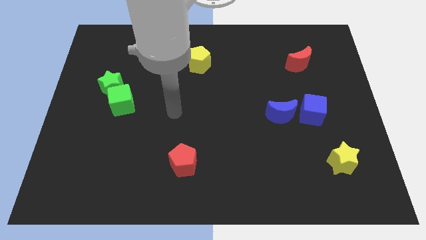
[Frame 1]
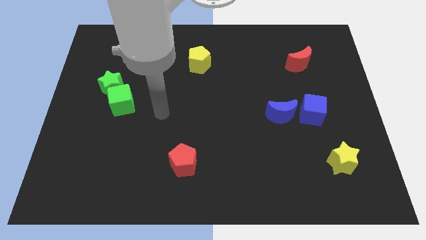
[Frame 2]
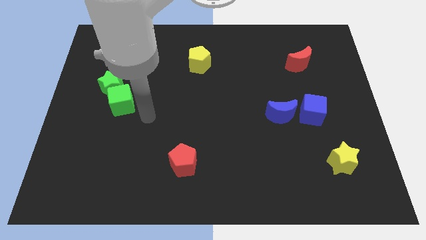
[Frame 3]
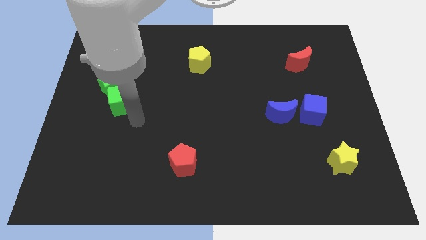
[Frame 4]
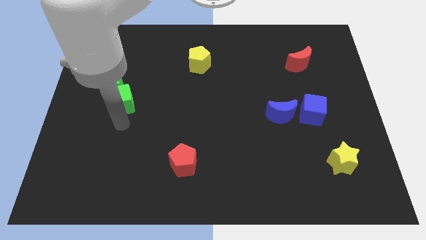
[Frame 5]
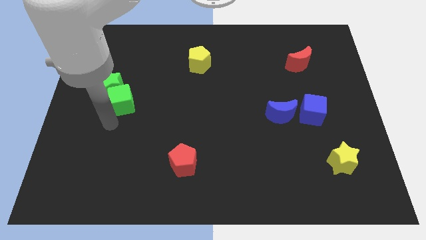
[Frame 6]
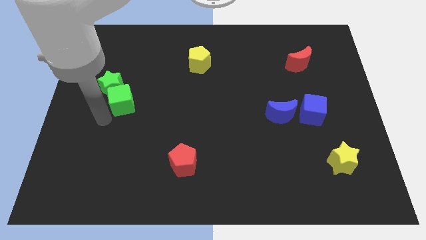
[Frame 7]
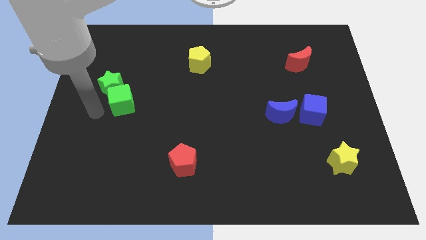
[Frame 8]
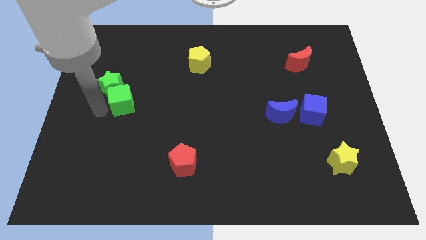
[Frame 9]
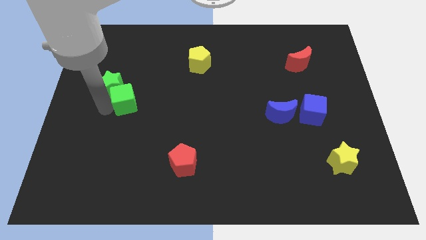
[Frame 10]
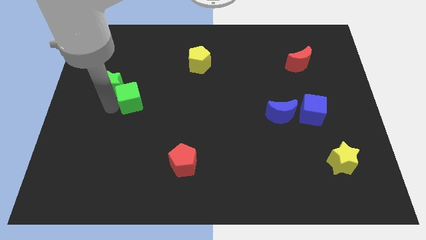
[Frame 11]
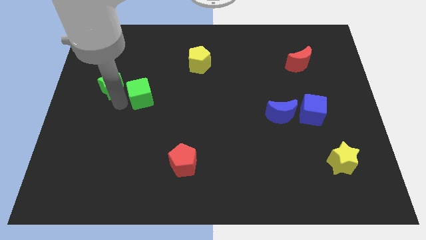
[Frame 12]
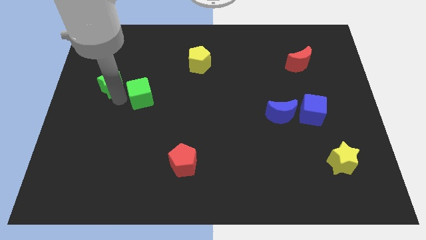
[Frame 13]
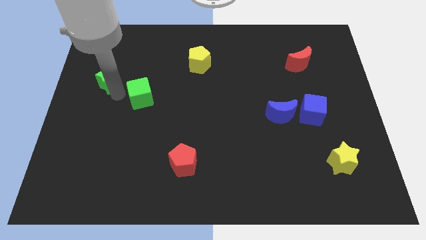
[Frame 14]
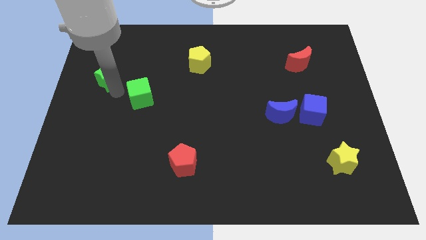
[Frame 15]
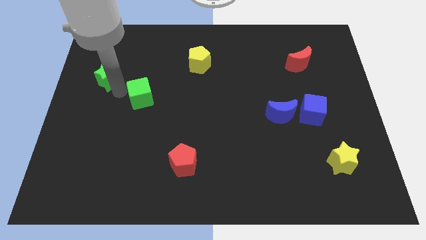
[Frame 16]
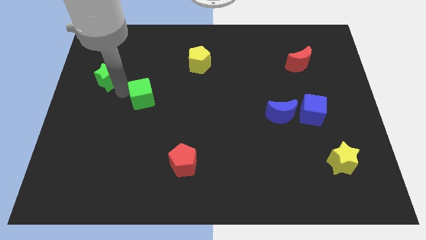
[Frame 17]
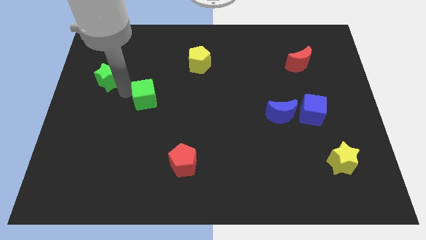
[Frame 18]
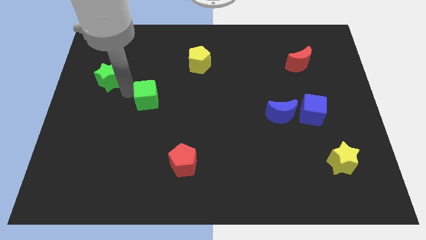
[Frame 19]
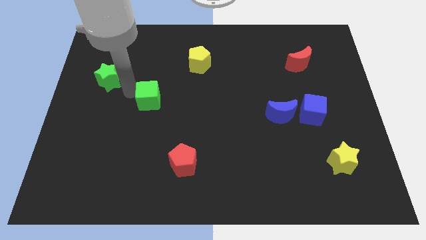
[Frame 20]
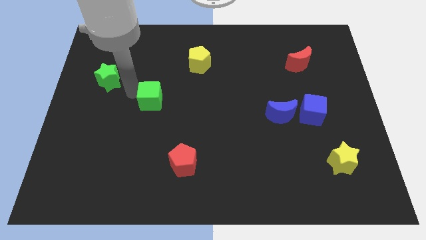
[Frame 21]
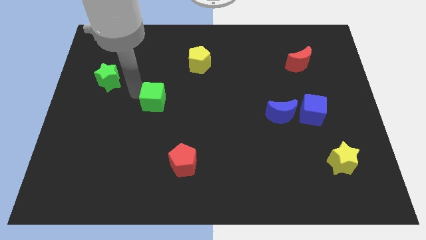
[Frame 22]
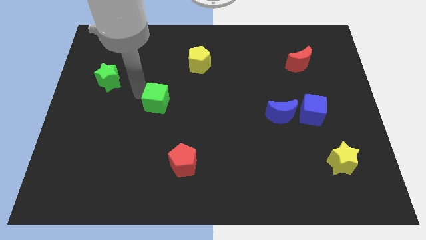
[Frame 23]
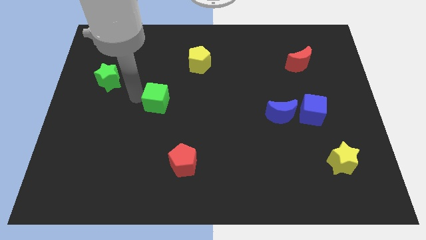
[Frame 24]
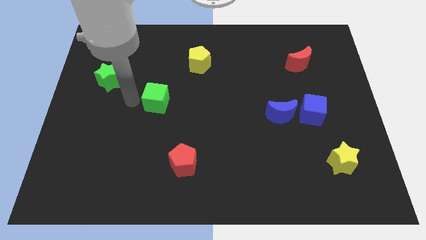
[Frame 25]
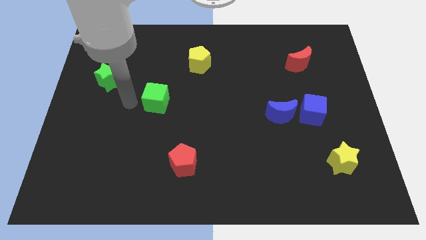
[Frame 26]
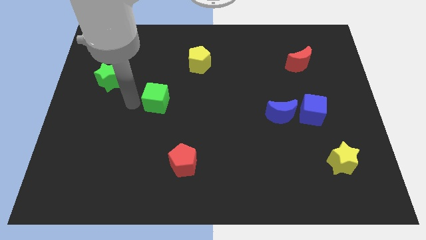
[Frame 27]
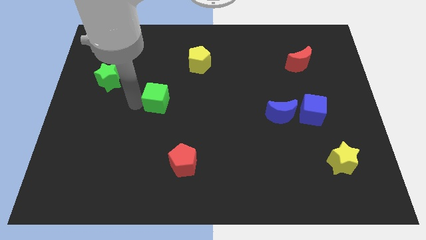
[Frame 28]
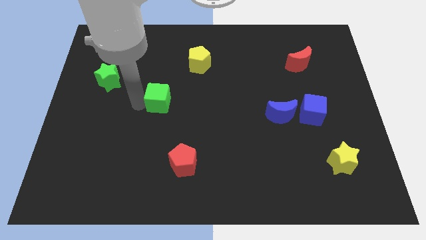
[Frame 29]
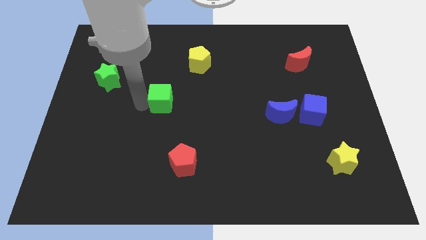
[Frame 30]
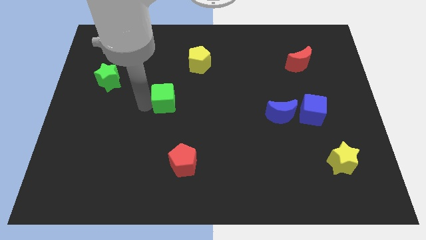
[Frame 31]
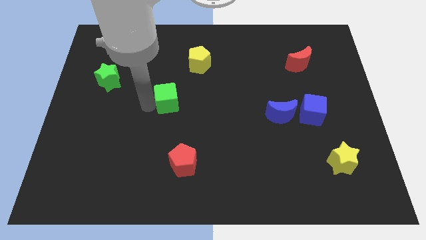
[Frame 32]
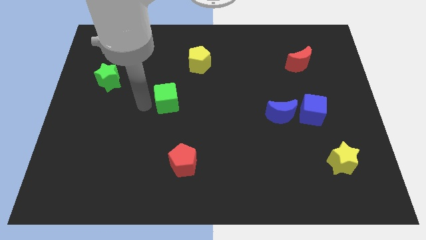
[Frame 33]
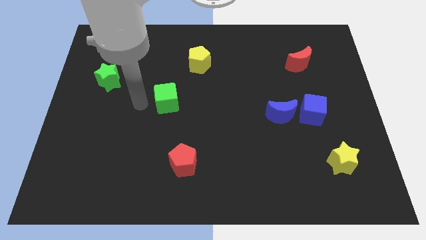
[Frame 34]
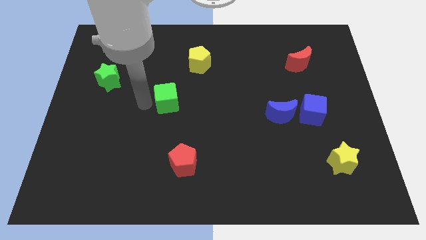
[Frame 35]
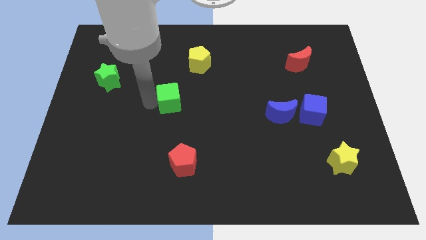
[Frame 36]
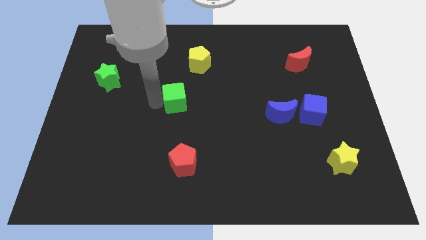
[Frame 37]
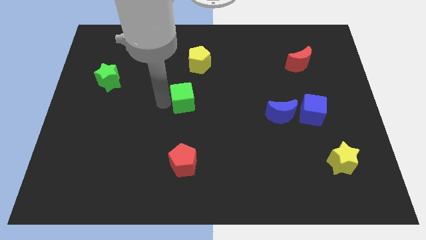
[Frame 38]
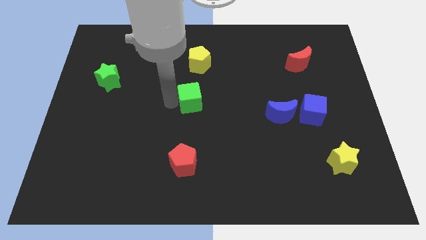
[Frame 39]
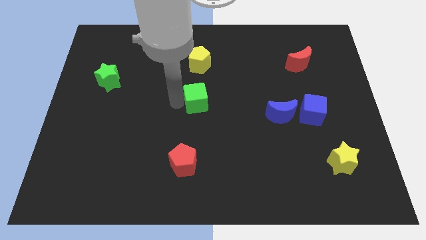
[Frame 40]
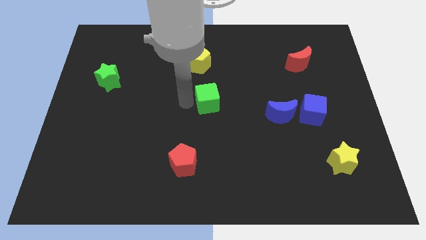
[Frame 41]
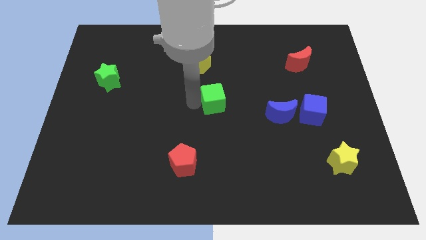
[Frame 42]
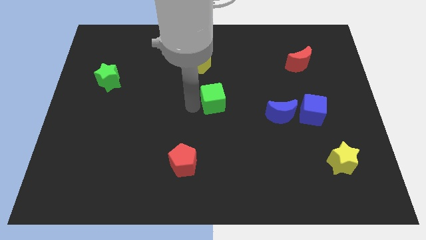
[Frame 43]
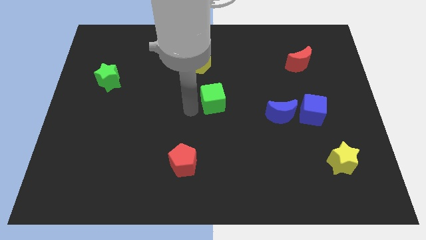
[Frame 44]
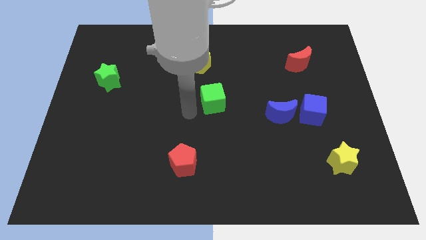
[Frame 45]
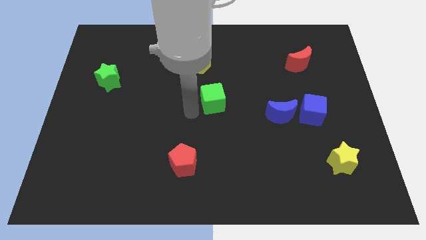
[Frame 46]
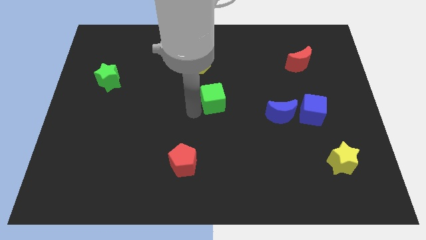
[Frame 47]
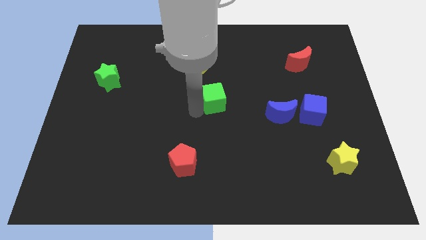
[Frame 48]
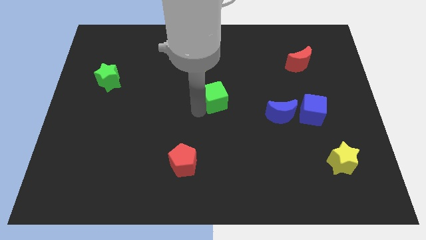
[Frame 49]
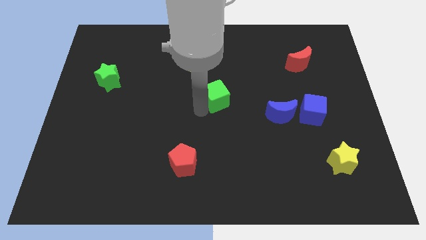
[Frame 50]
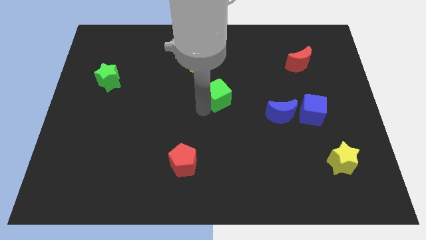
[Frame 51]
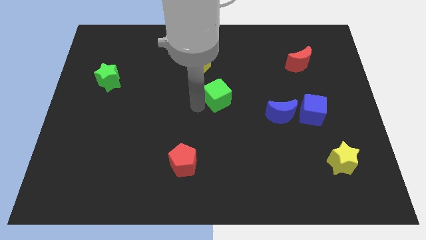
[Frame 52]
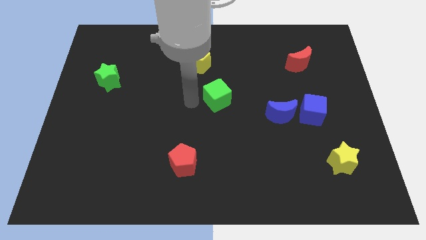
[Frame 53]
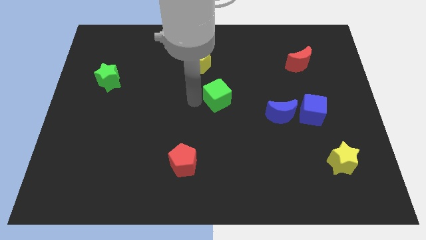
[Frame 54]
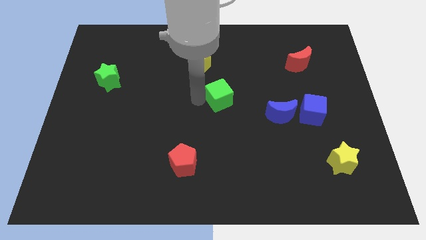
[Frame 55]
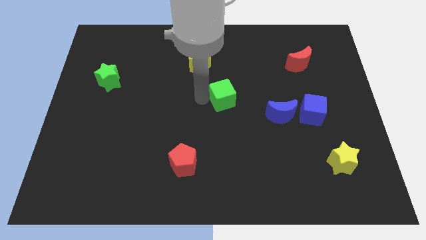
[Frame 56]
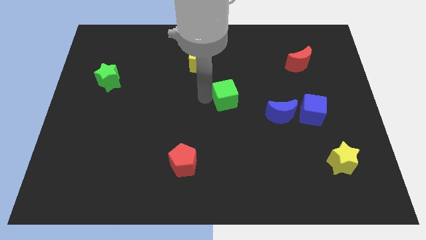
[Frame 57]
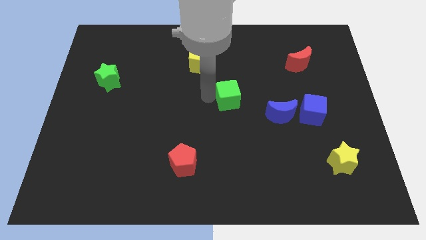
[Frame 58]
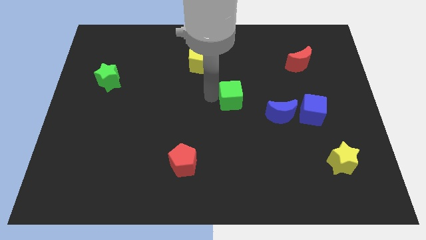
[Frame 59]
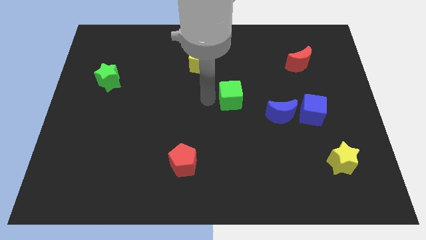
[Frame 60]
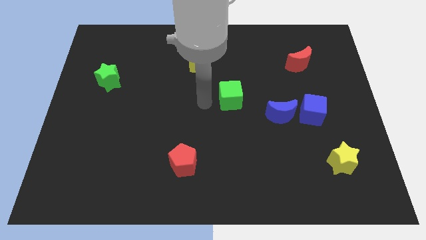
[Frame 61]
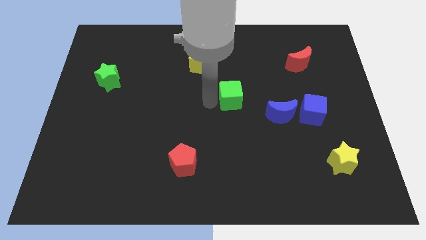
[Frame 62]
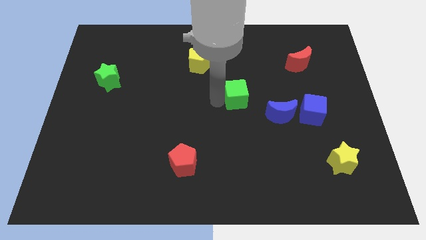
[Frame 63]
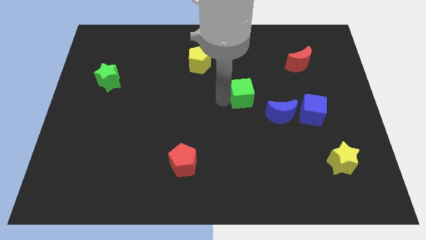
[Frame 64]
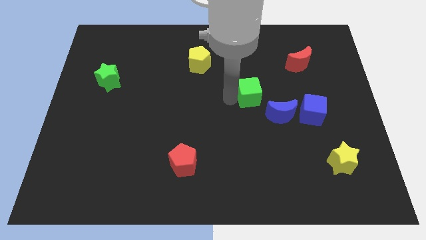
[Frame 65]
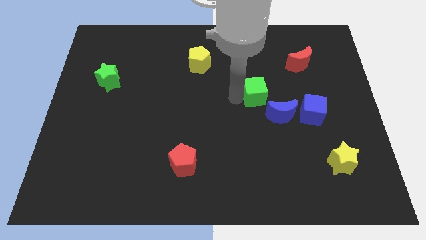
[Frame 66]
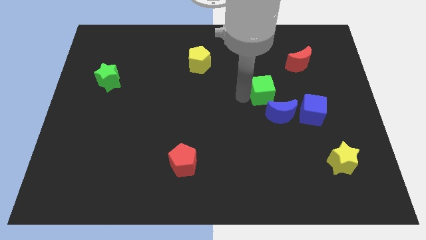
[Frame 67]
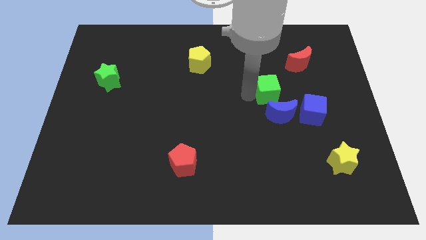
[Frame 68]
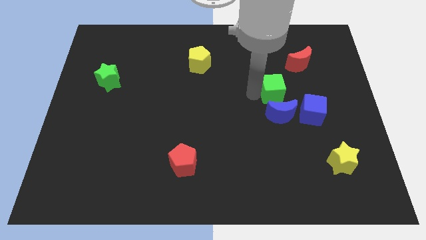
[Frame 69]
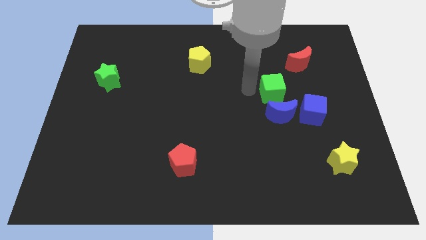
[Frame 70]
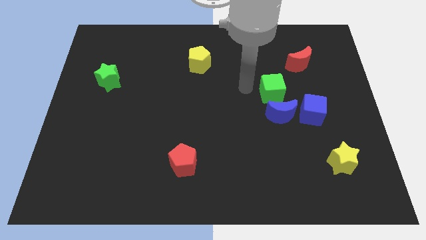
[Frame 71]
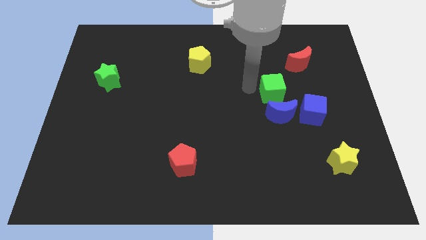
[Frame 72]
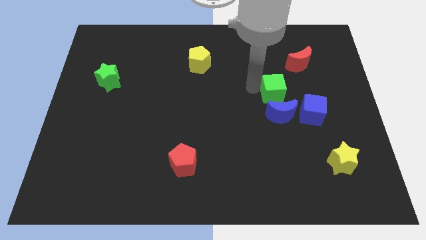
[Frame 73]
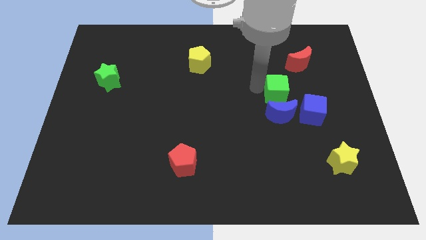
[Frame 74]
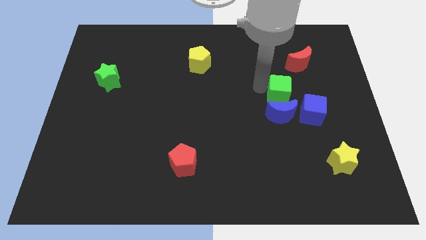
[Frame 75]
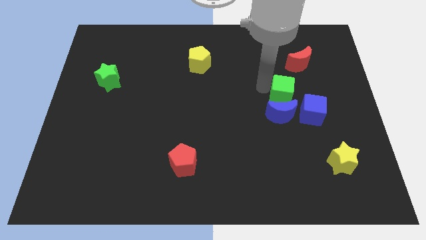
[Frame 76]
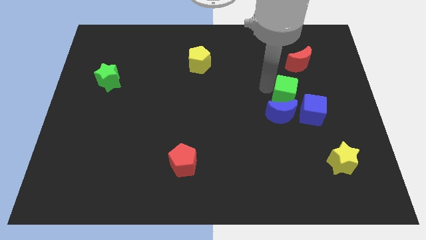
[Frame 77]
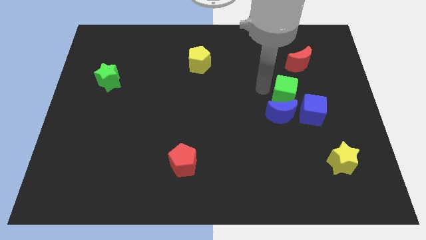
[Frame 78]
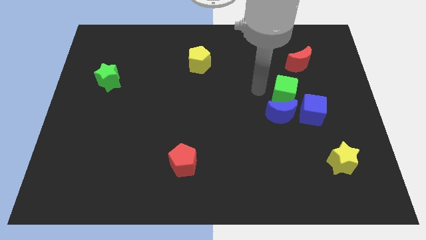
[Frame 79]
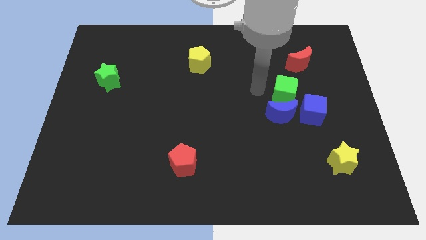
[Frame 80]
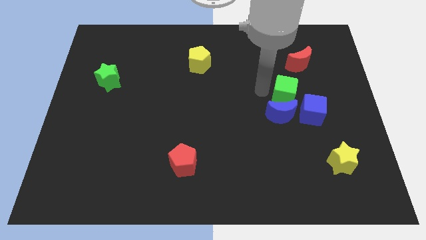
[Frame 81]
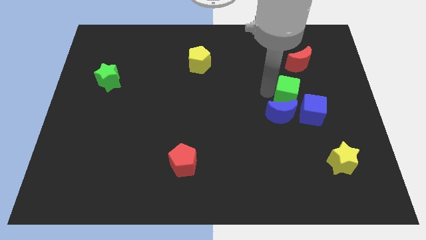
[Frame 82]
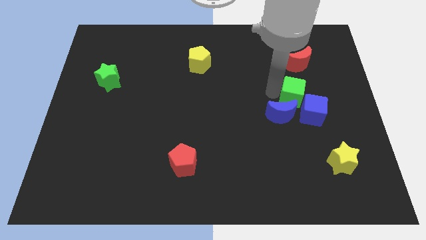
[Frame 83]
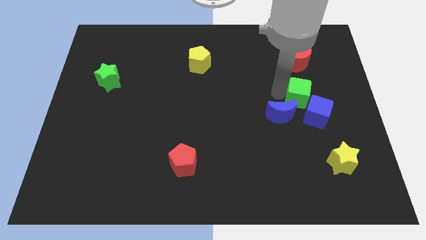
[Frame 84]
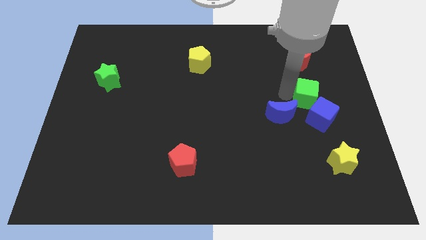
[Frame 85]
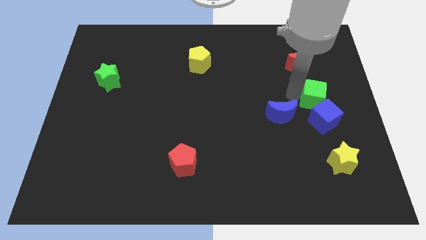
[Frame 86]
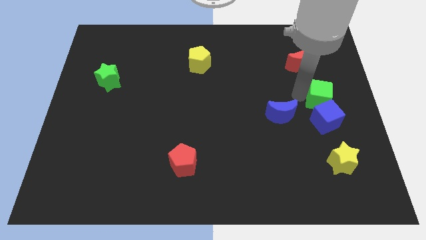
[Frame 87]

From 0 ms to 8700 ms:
put the green cube to the right side of the blue moon
